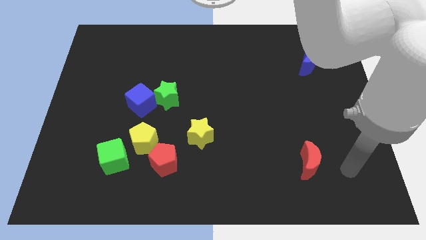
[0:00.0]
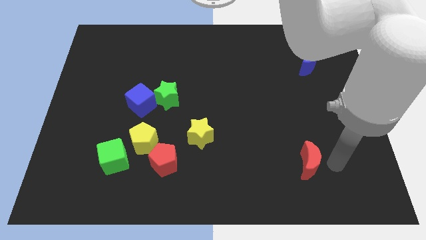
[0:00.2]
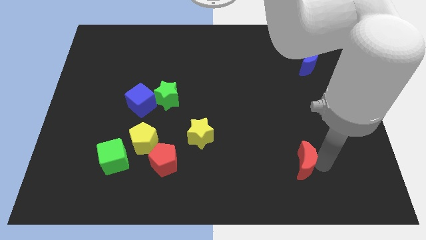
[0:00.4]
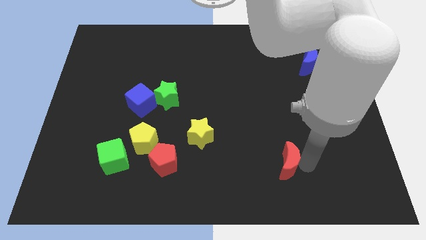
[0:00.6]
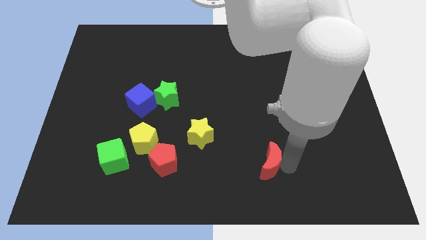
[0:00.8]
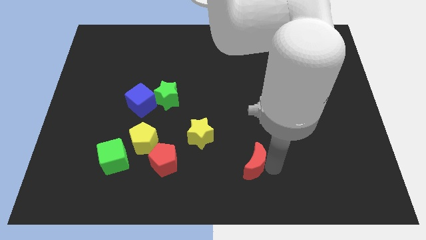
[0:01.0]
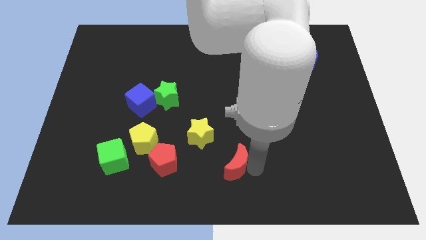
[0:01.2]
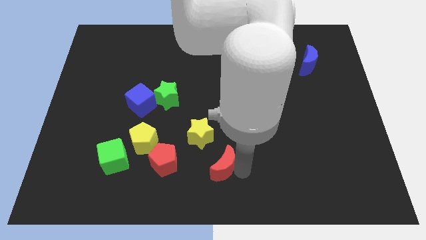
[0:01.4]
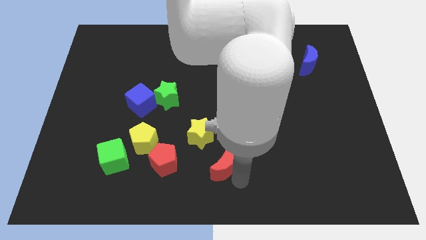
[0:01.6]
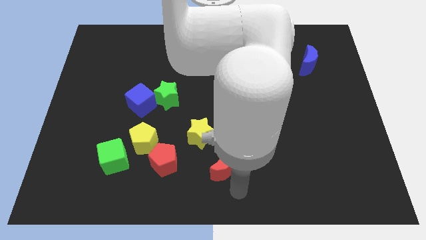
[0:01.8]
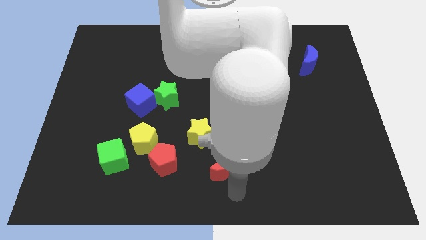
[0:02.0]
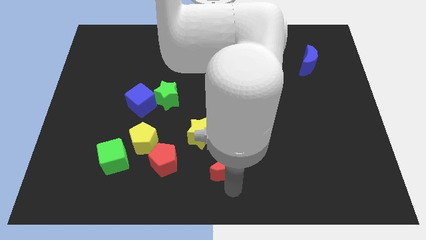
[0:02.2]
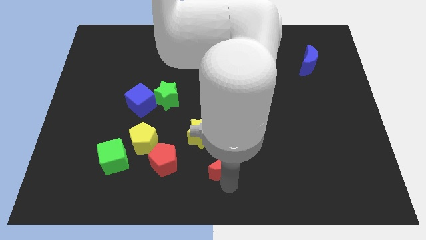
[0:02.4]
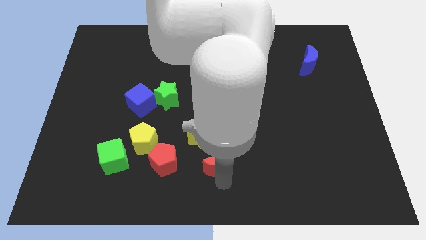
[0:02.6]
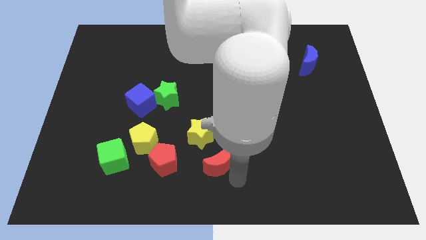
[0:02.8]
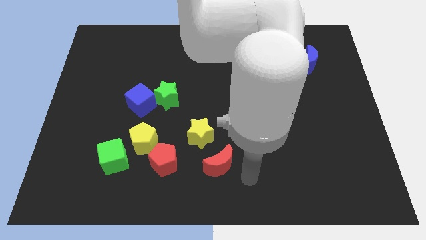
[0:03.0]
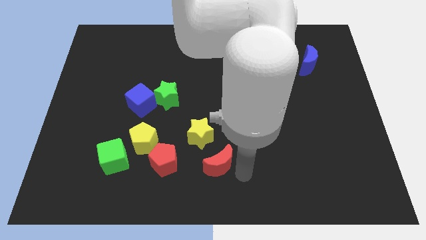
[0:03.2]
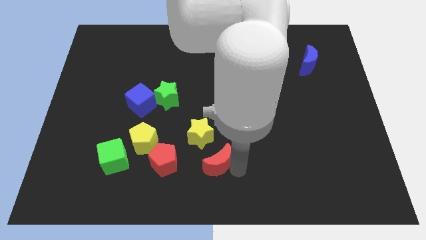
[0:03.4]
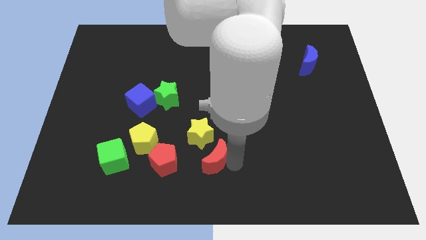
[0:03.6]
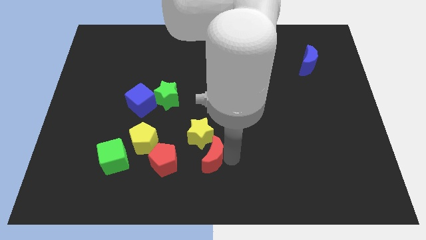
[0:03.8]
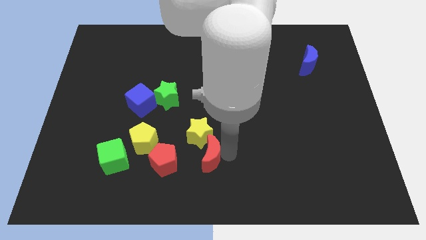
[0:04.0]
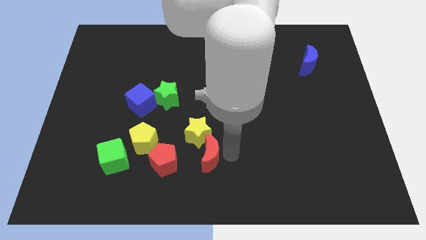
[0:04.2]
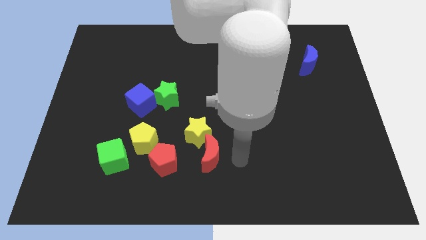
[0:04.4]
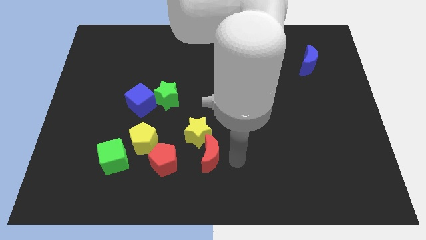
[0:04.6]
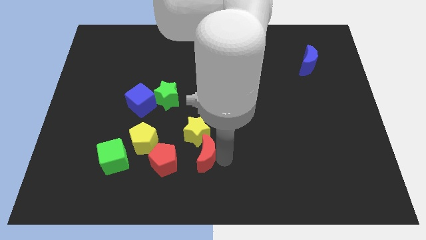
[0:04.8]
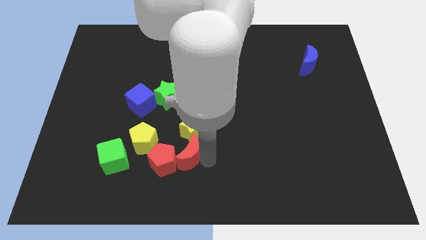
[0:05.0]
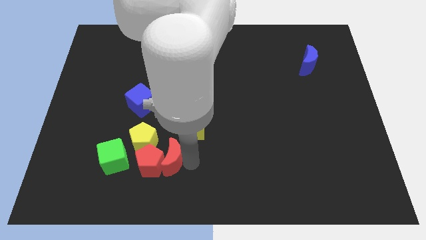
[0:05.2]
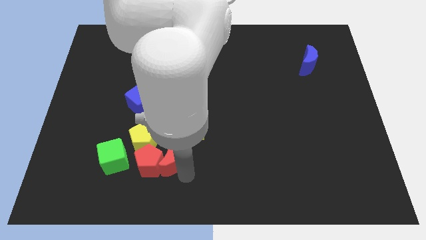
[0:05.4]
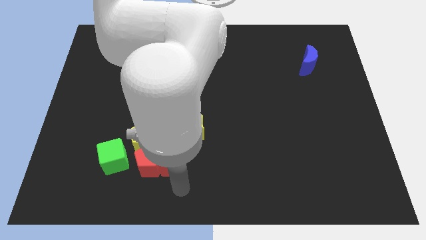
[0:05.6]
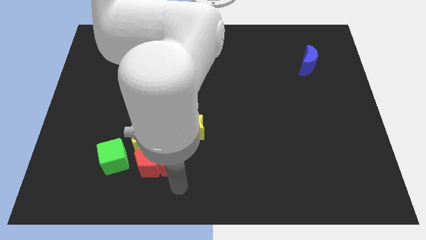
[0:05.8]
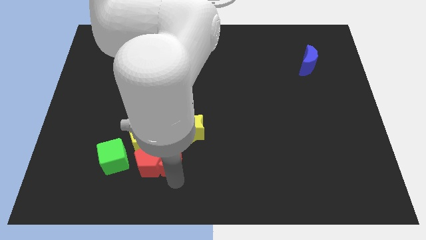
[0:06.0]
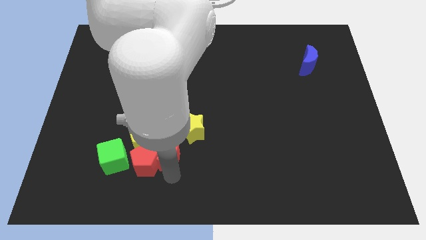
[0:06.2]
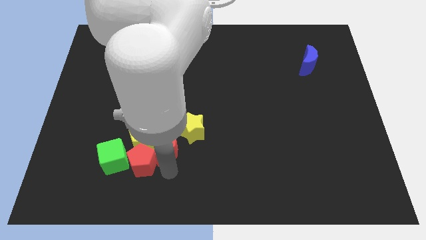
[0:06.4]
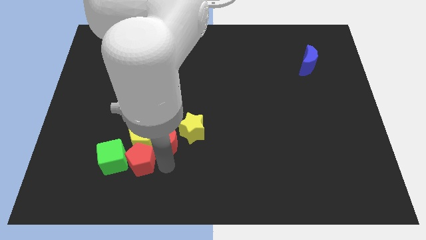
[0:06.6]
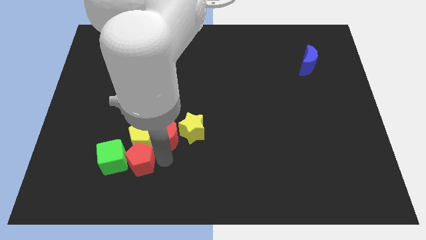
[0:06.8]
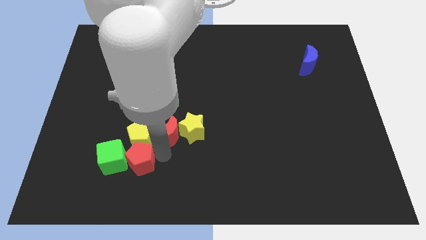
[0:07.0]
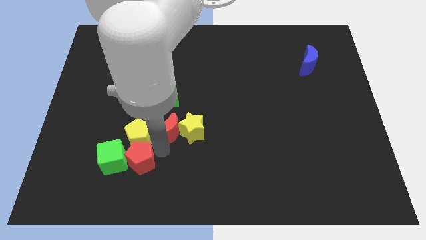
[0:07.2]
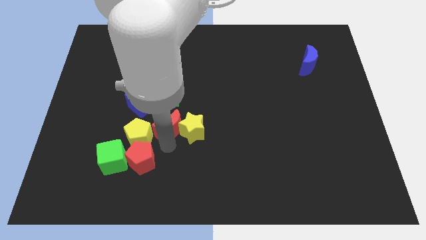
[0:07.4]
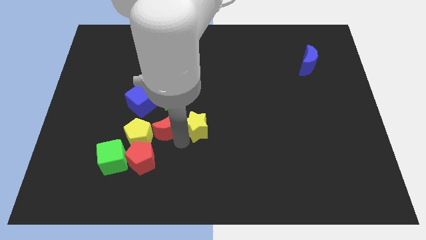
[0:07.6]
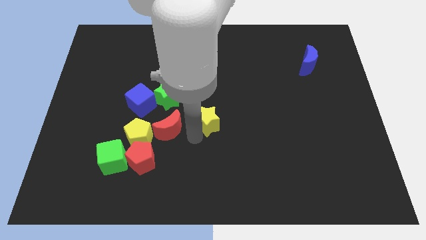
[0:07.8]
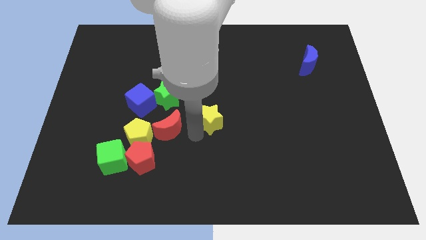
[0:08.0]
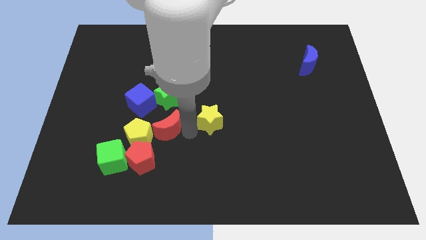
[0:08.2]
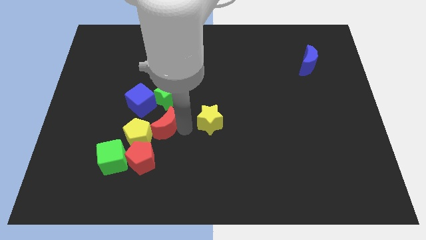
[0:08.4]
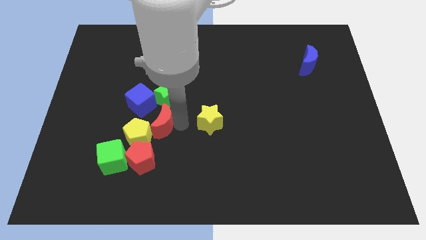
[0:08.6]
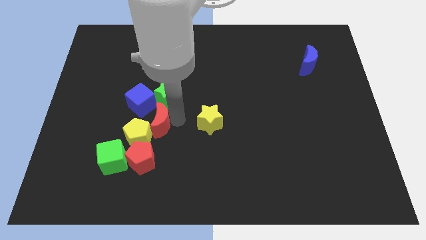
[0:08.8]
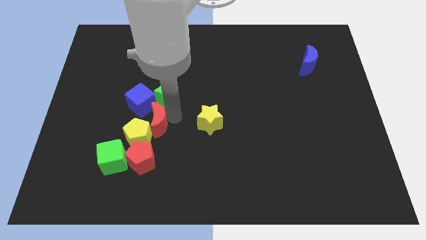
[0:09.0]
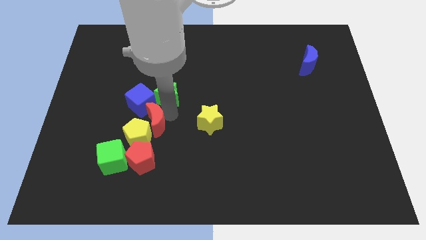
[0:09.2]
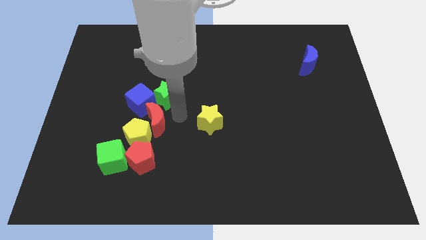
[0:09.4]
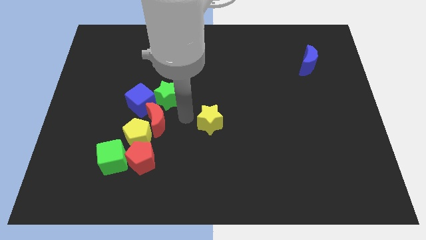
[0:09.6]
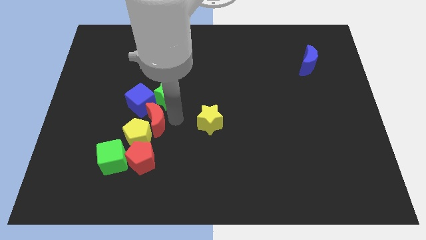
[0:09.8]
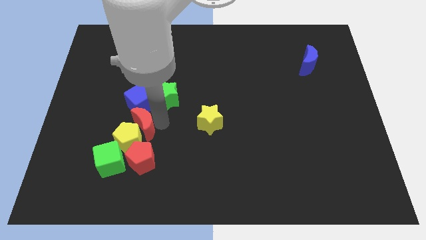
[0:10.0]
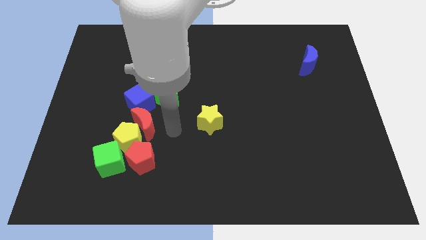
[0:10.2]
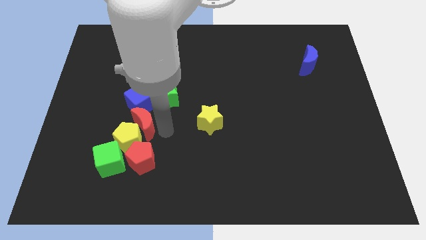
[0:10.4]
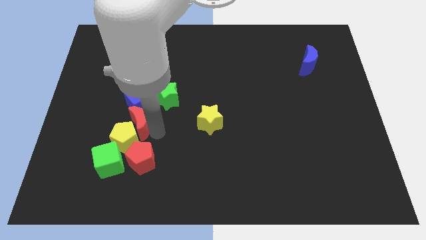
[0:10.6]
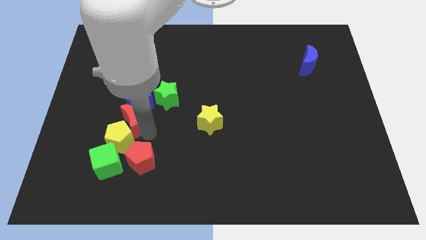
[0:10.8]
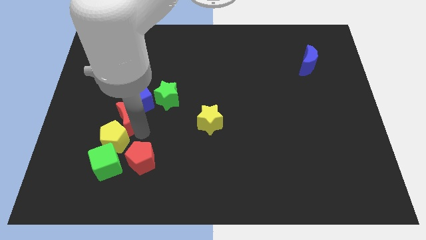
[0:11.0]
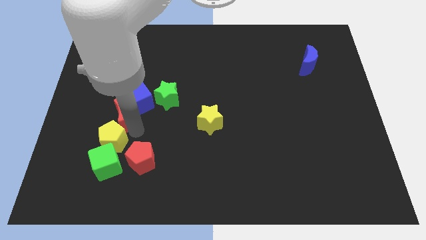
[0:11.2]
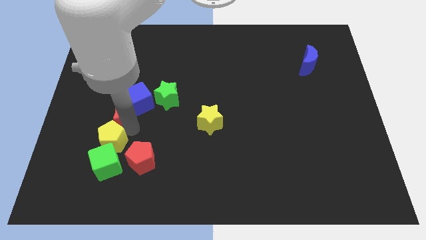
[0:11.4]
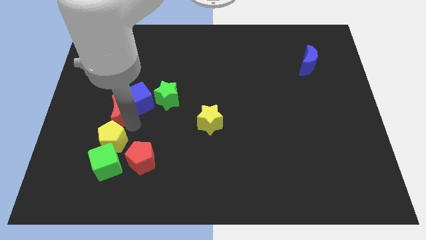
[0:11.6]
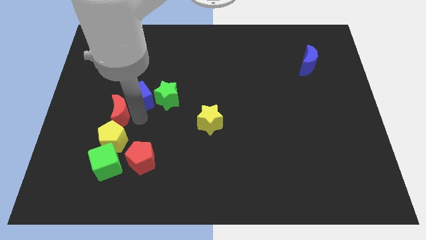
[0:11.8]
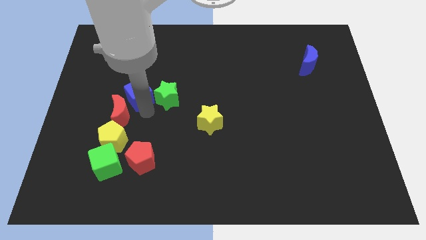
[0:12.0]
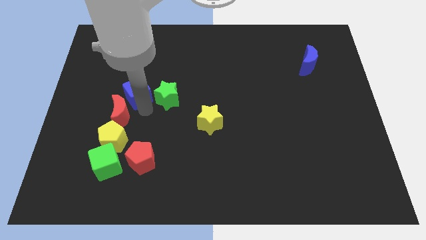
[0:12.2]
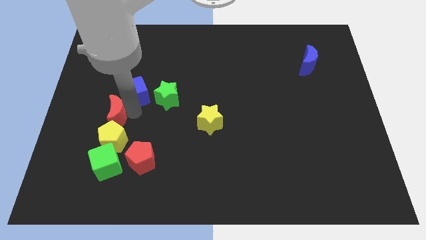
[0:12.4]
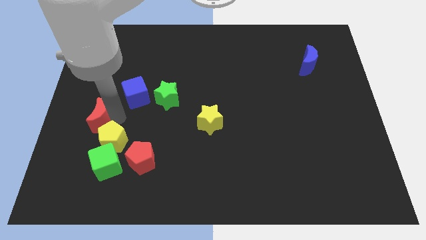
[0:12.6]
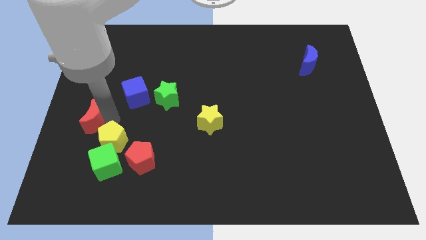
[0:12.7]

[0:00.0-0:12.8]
push the red moon to the left side of the board
